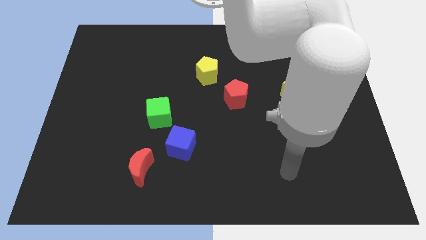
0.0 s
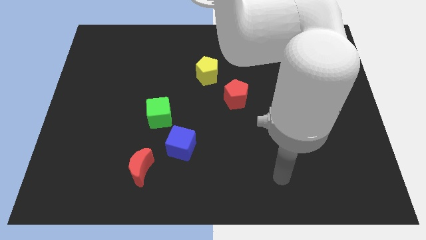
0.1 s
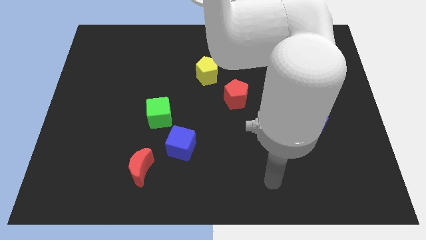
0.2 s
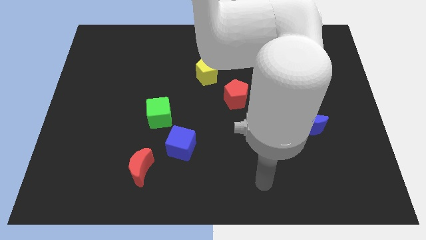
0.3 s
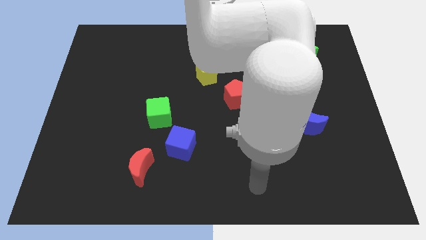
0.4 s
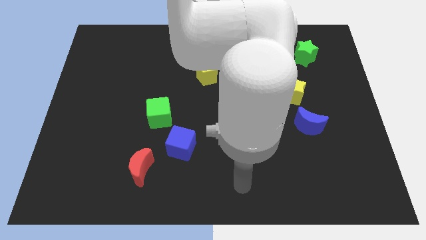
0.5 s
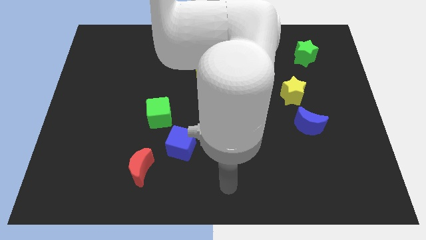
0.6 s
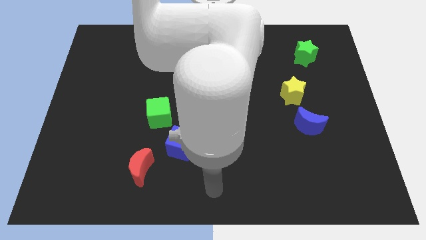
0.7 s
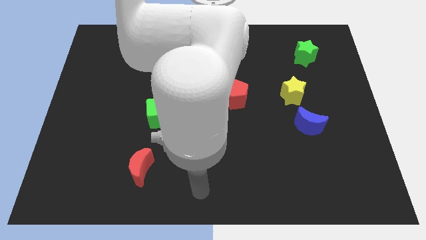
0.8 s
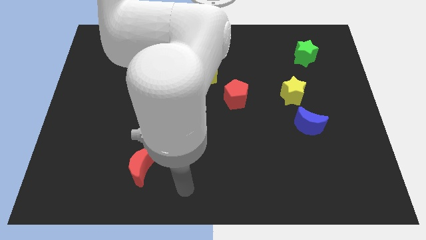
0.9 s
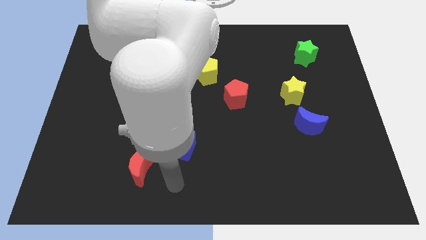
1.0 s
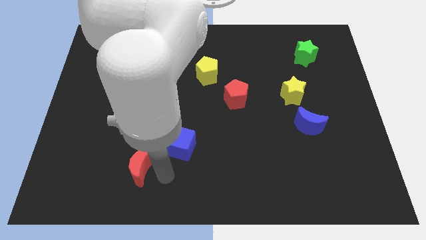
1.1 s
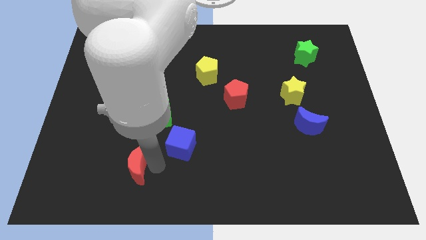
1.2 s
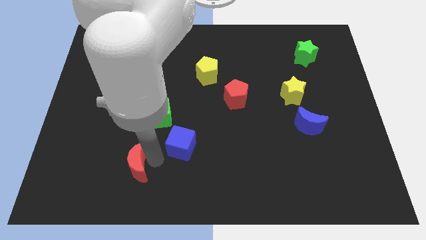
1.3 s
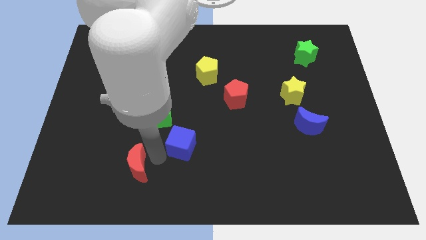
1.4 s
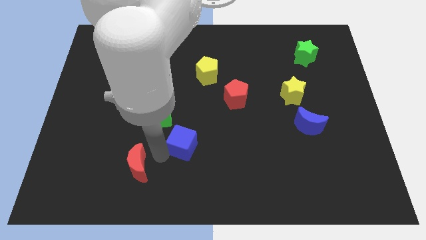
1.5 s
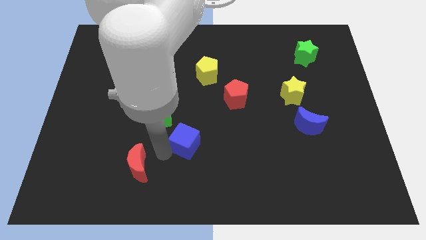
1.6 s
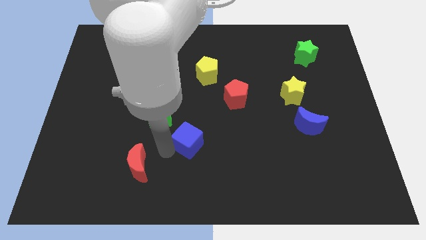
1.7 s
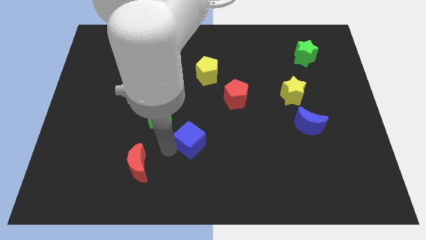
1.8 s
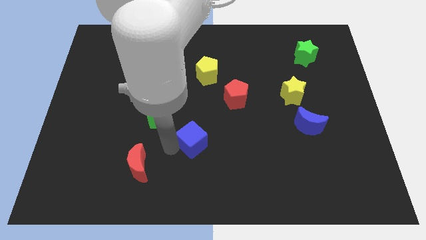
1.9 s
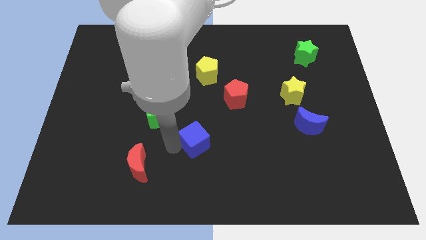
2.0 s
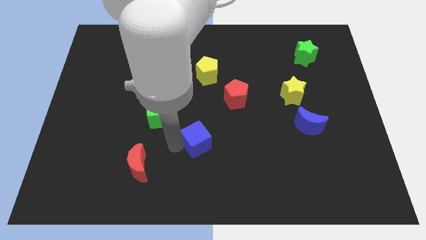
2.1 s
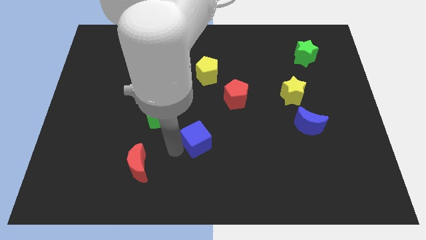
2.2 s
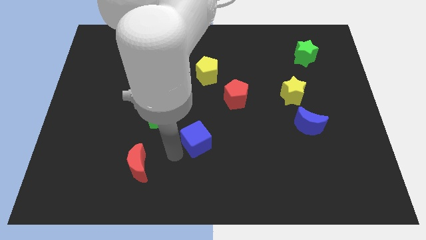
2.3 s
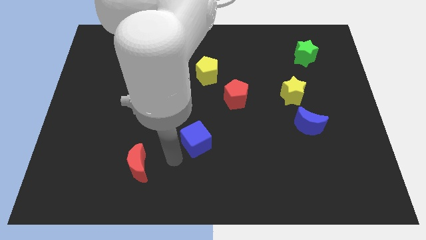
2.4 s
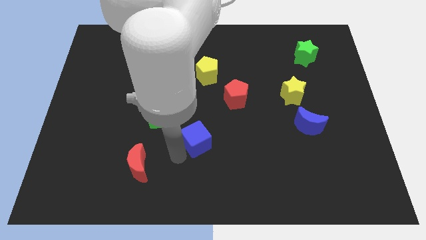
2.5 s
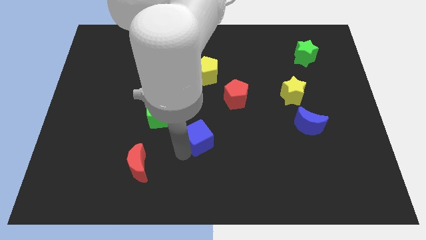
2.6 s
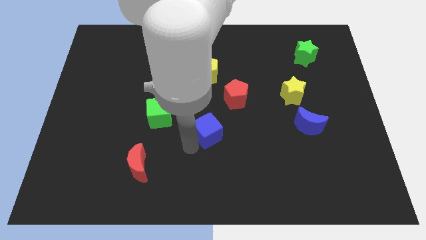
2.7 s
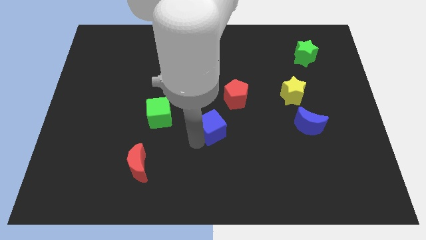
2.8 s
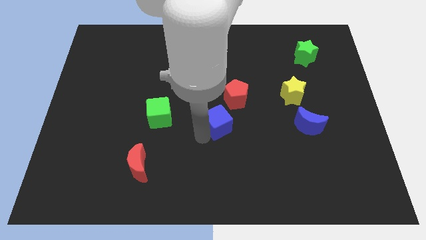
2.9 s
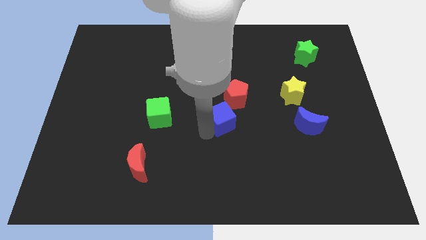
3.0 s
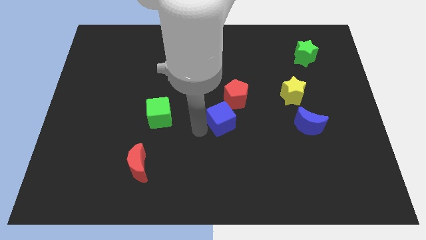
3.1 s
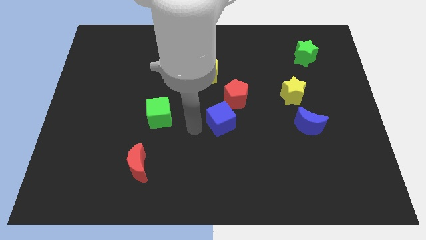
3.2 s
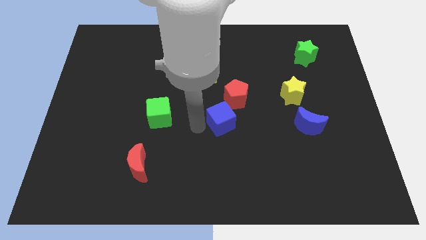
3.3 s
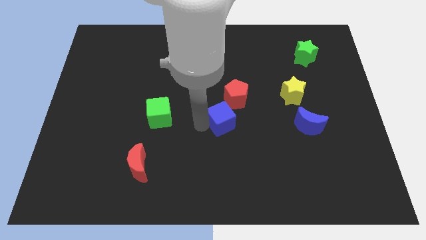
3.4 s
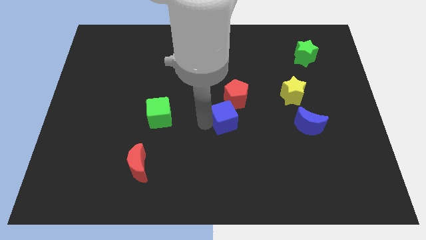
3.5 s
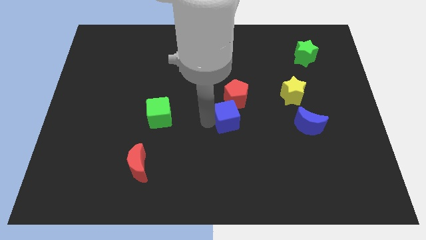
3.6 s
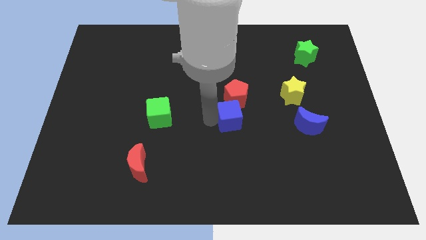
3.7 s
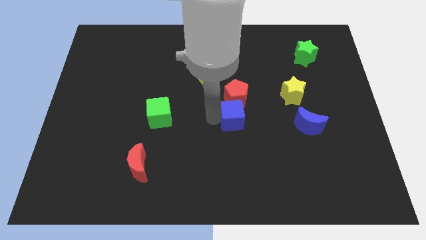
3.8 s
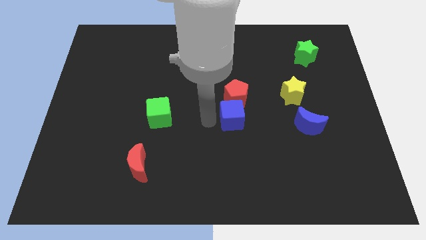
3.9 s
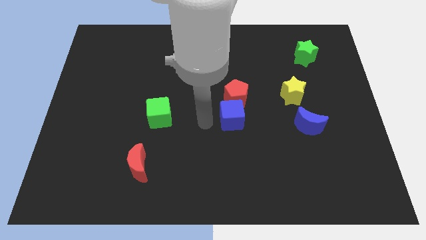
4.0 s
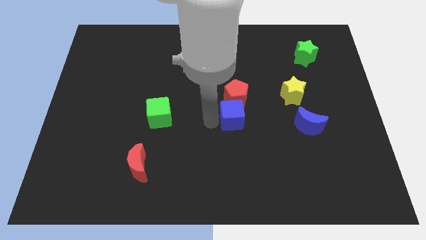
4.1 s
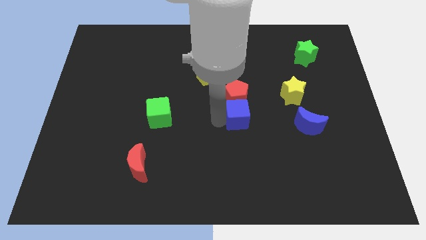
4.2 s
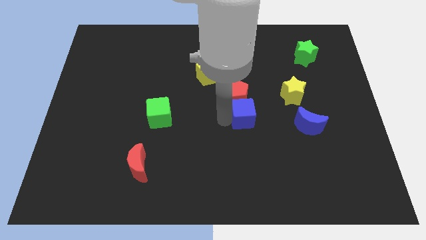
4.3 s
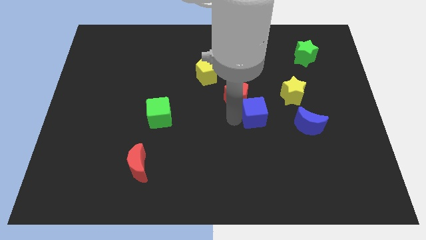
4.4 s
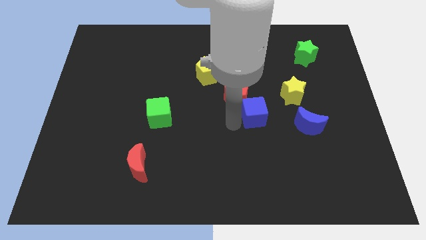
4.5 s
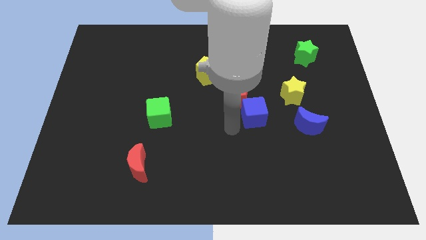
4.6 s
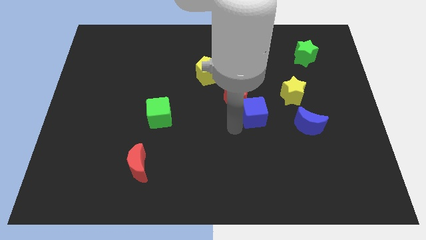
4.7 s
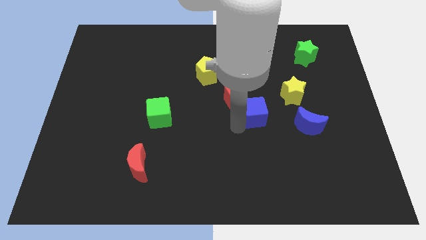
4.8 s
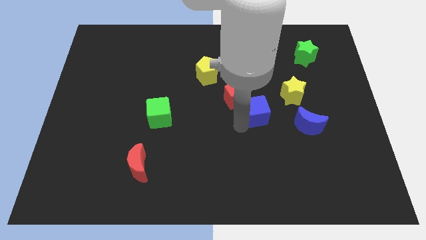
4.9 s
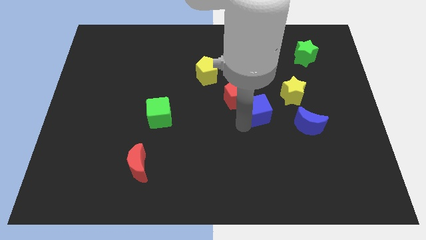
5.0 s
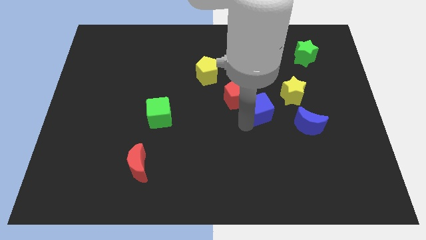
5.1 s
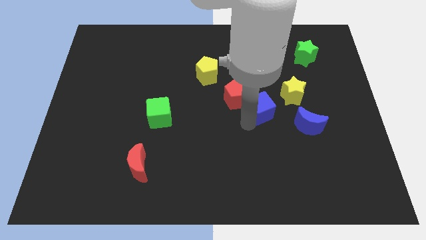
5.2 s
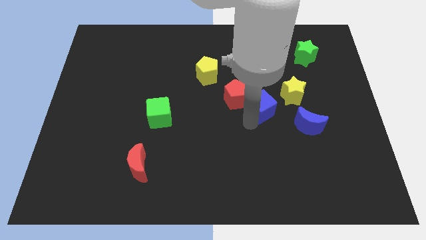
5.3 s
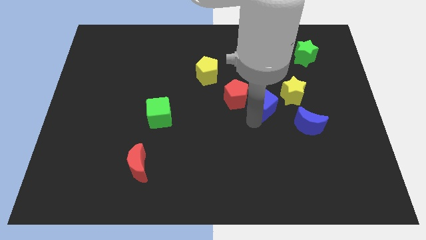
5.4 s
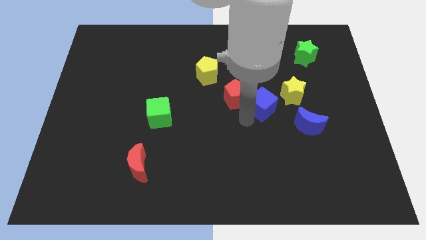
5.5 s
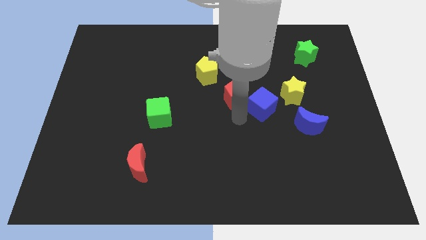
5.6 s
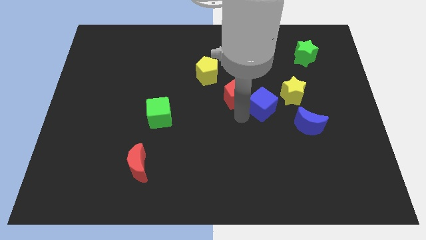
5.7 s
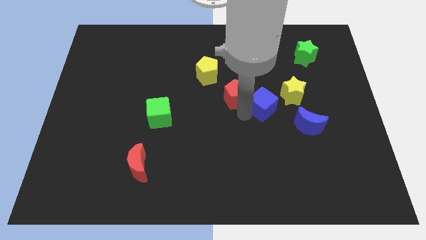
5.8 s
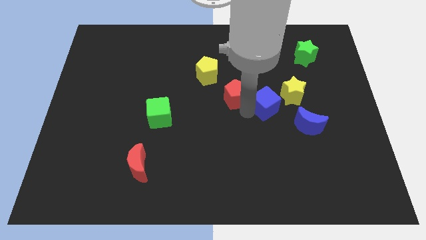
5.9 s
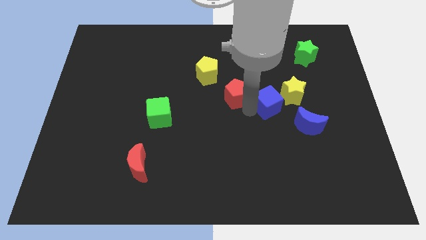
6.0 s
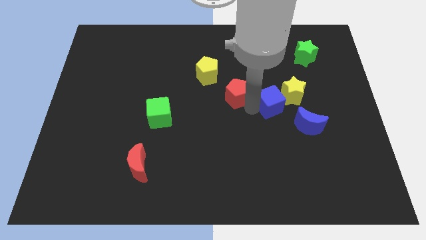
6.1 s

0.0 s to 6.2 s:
put the blue cube to the yellow star
